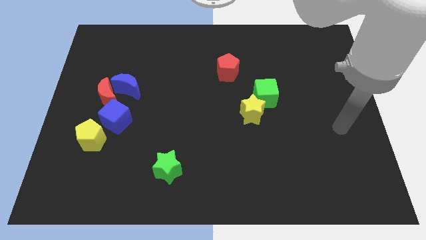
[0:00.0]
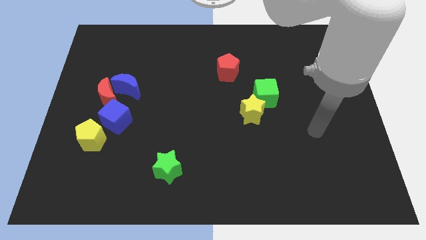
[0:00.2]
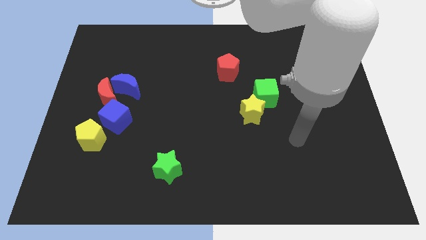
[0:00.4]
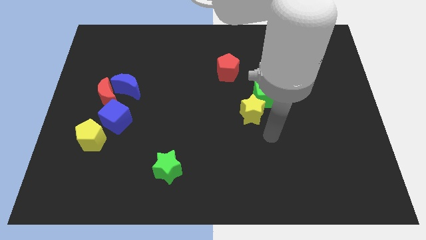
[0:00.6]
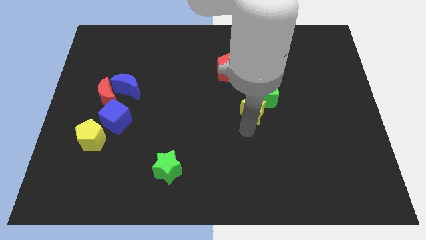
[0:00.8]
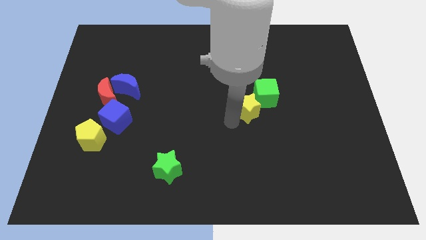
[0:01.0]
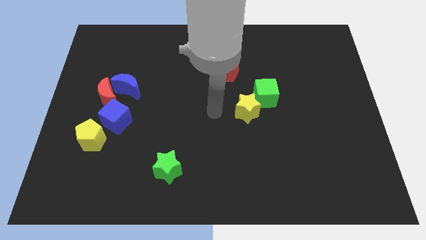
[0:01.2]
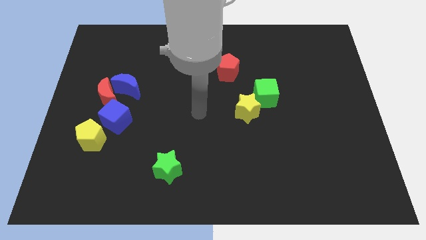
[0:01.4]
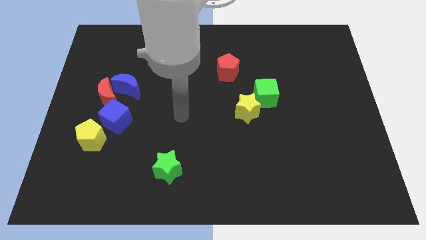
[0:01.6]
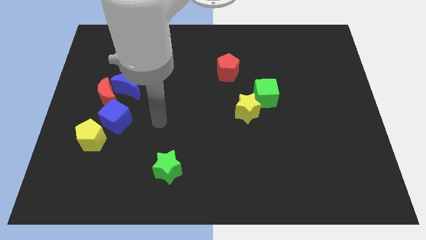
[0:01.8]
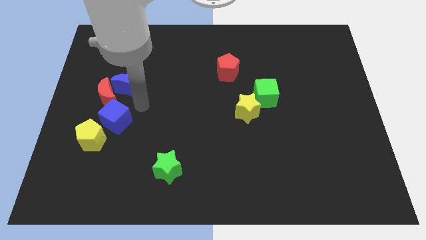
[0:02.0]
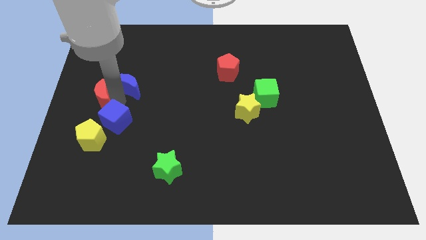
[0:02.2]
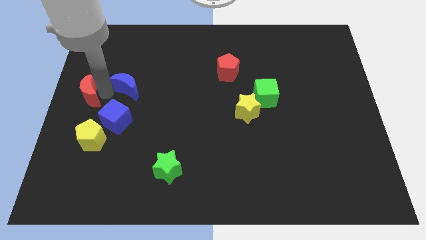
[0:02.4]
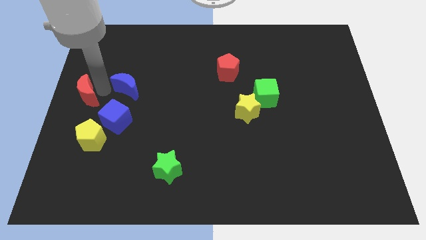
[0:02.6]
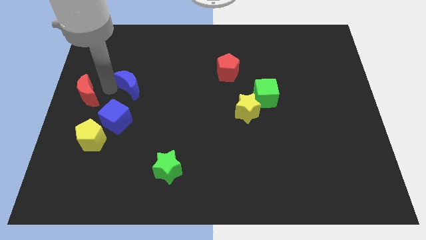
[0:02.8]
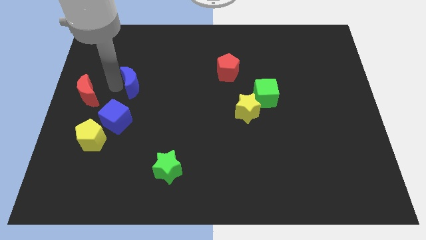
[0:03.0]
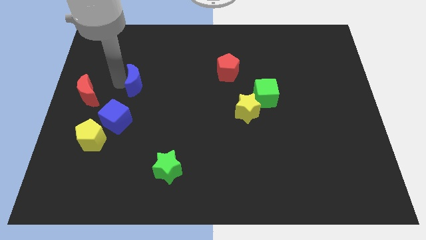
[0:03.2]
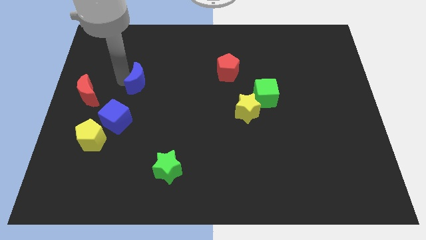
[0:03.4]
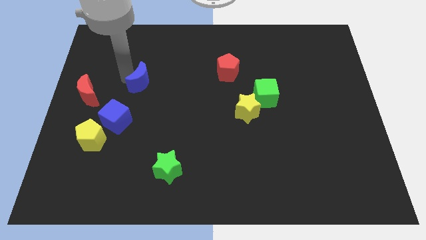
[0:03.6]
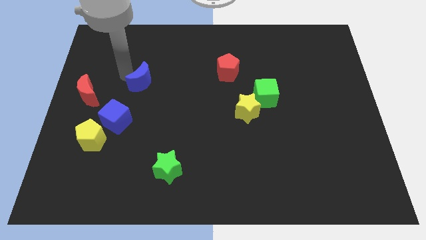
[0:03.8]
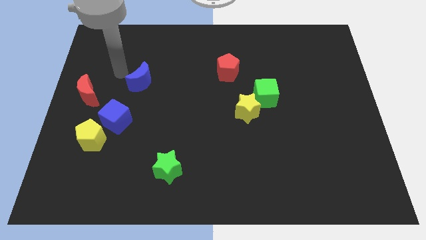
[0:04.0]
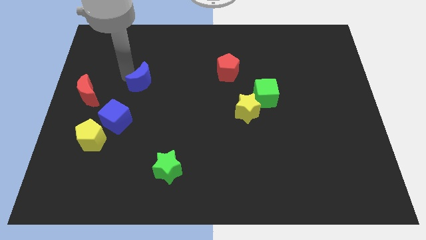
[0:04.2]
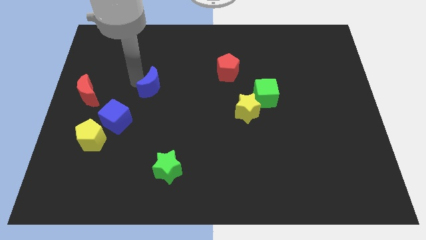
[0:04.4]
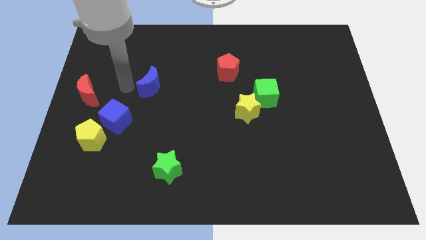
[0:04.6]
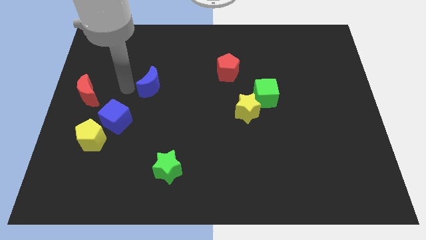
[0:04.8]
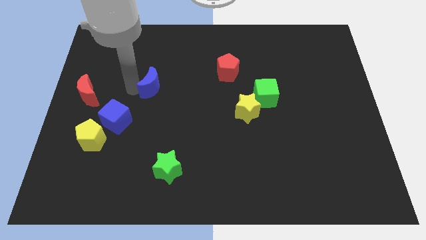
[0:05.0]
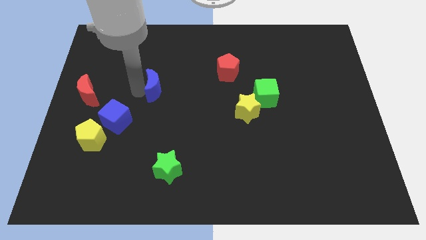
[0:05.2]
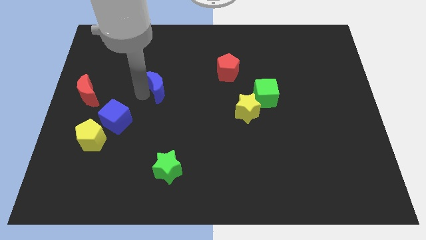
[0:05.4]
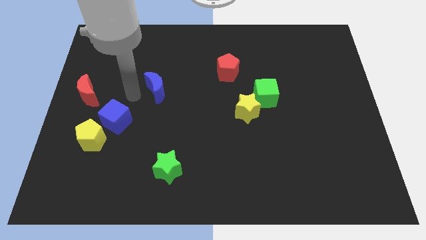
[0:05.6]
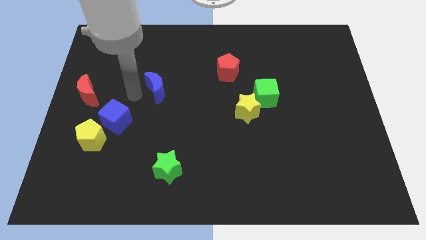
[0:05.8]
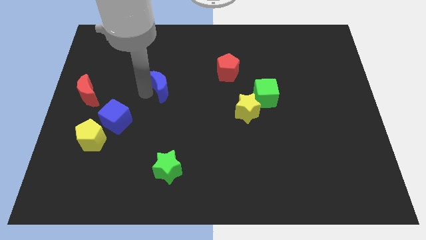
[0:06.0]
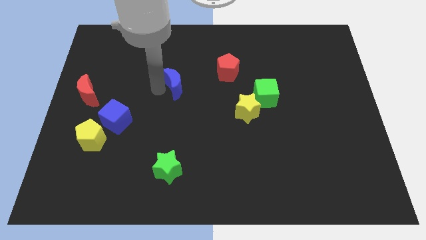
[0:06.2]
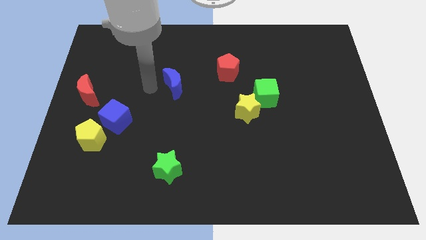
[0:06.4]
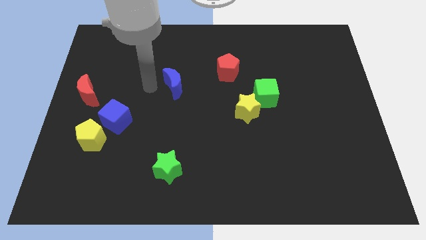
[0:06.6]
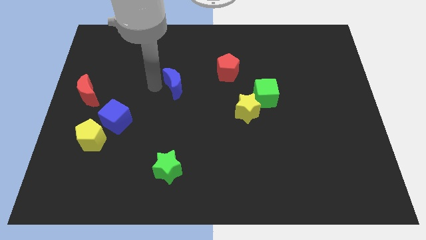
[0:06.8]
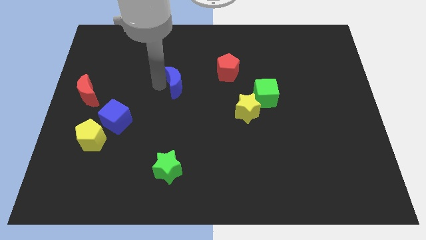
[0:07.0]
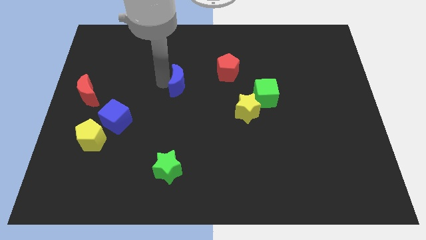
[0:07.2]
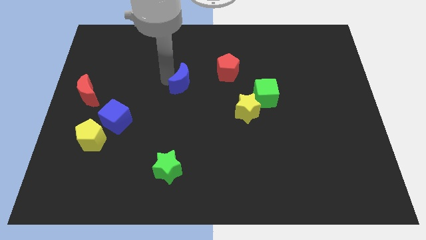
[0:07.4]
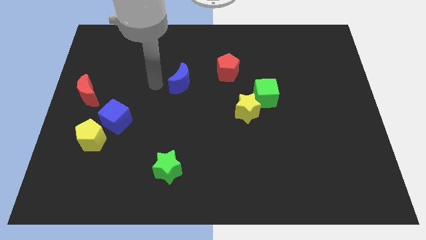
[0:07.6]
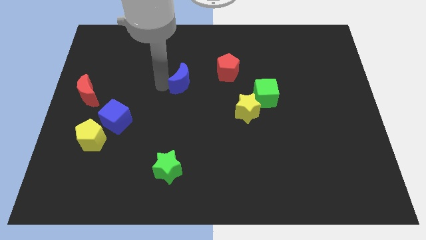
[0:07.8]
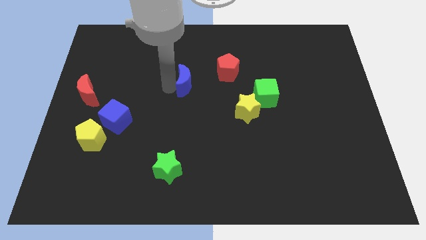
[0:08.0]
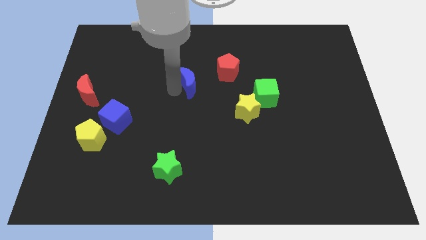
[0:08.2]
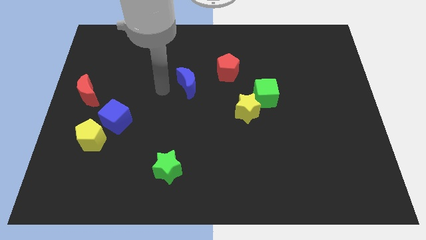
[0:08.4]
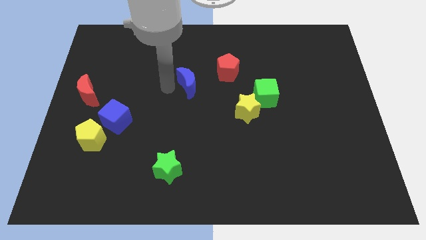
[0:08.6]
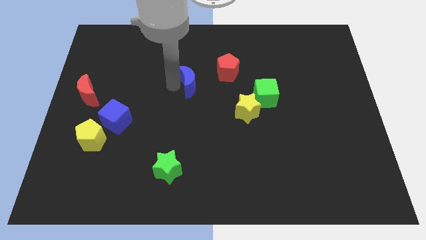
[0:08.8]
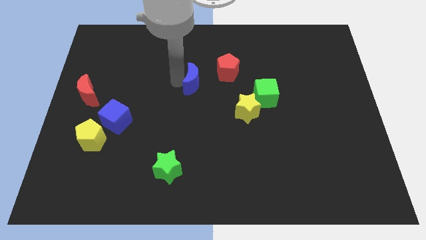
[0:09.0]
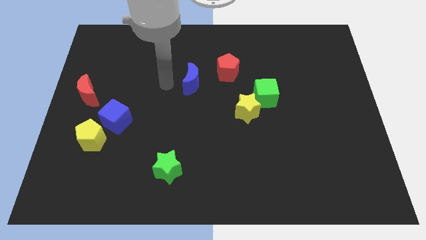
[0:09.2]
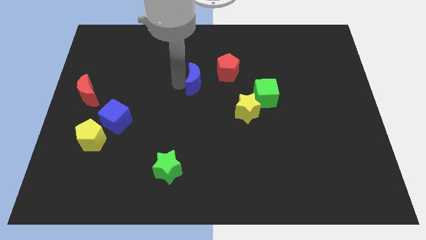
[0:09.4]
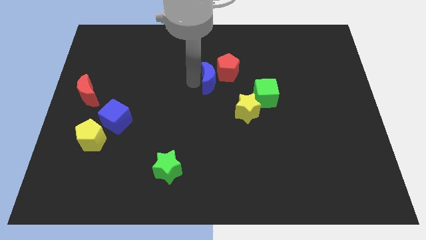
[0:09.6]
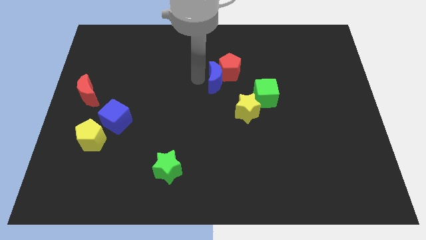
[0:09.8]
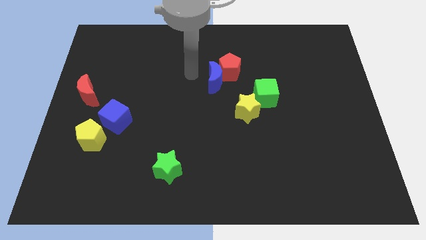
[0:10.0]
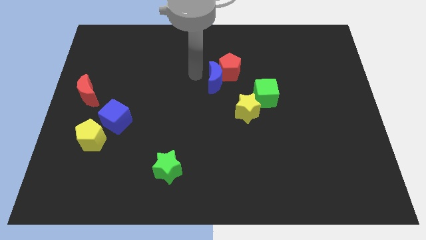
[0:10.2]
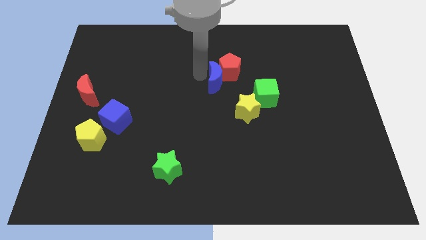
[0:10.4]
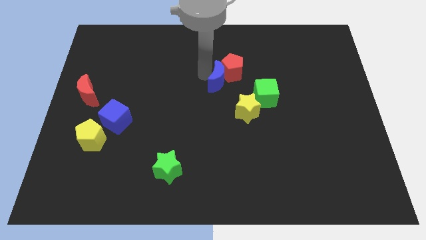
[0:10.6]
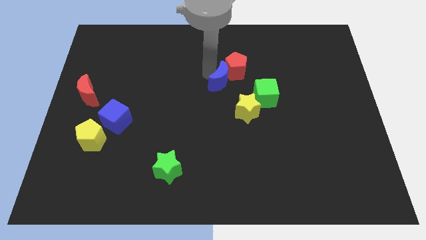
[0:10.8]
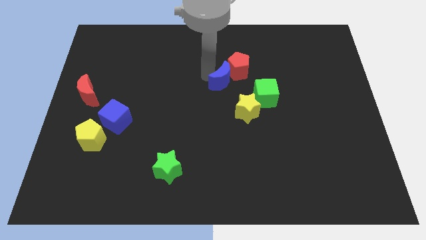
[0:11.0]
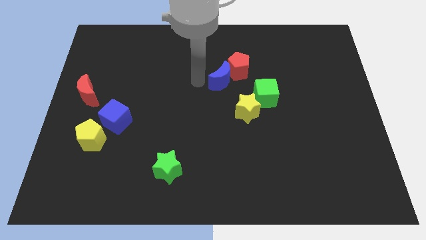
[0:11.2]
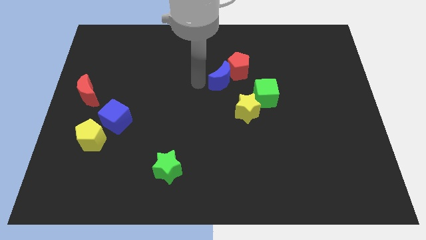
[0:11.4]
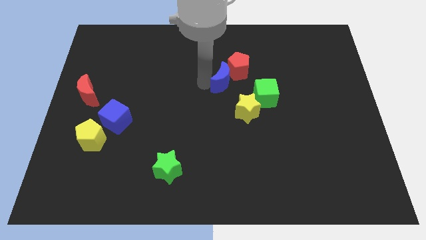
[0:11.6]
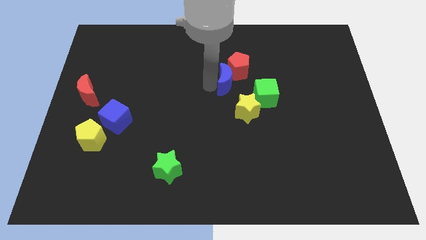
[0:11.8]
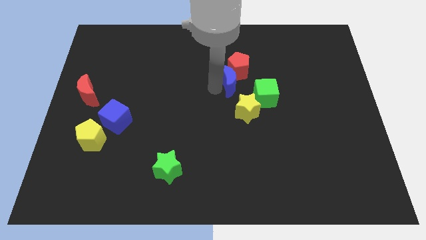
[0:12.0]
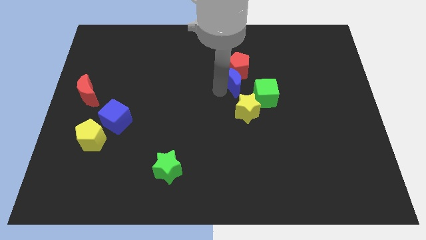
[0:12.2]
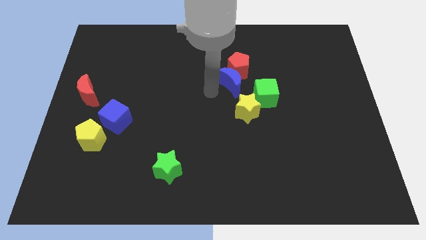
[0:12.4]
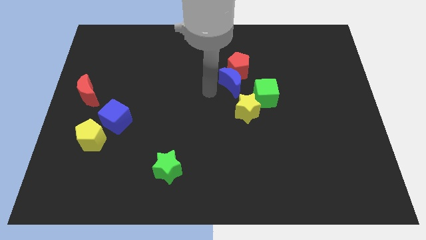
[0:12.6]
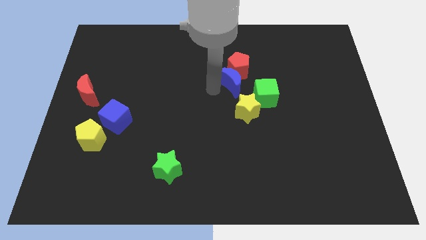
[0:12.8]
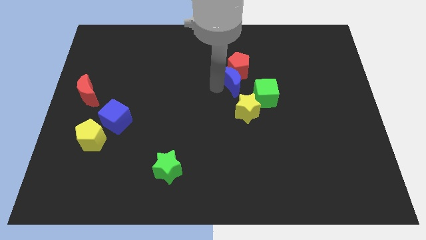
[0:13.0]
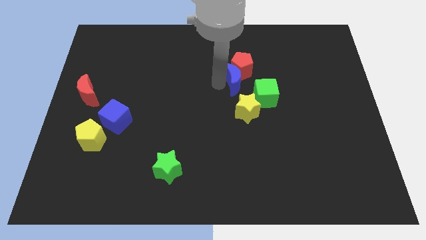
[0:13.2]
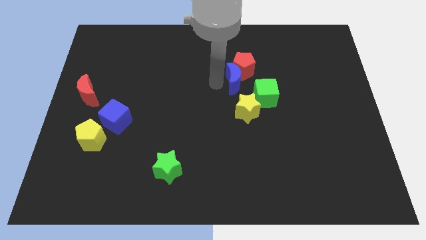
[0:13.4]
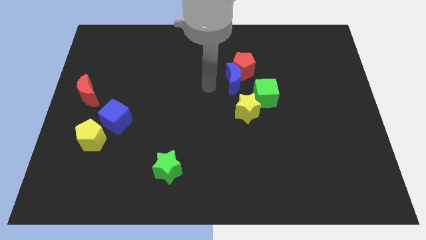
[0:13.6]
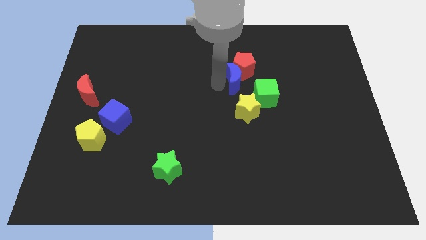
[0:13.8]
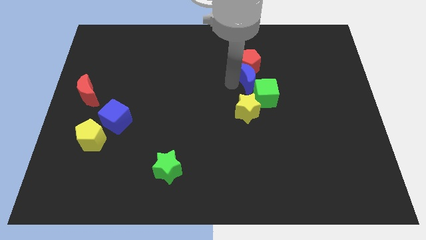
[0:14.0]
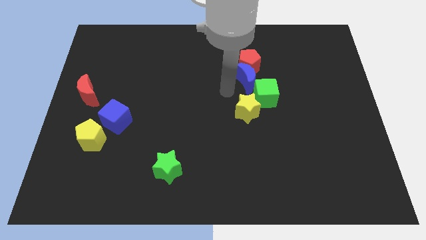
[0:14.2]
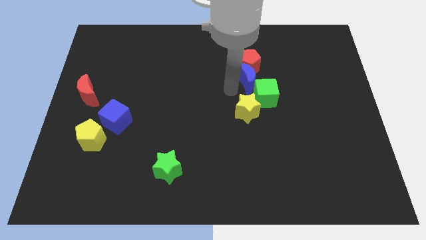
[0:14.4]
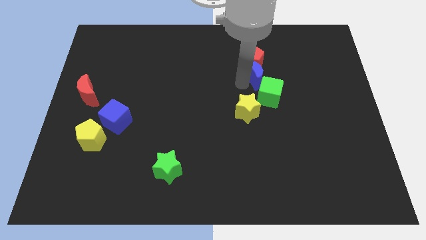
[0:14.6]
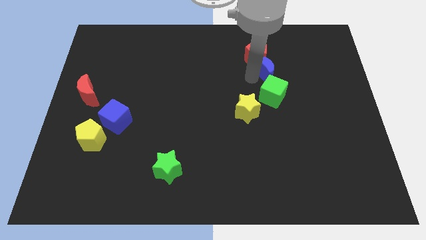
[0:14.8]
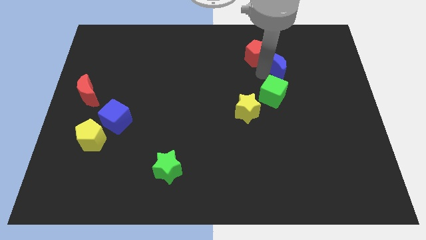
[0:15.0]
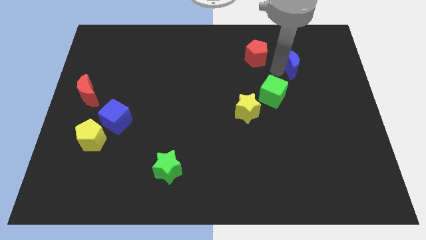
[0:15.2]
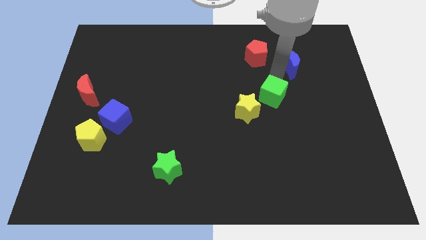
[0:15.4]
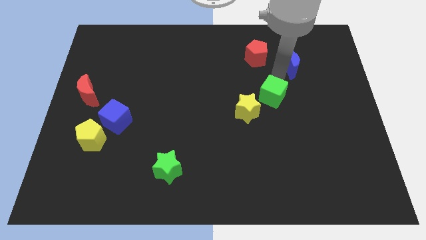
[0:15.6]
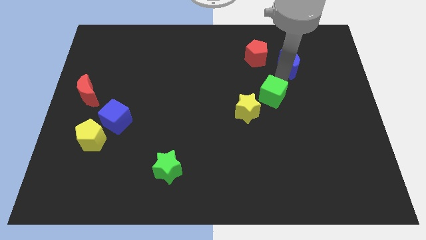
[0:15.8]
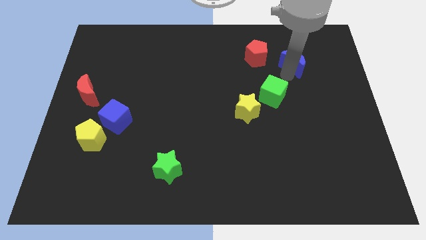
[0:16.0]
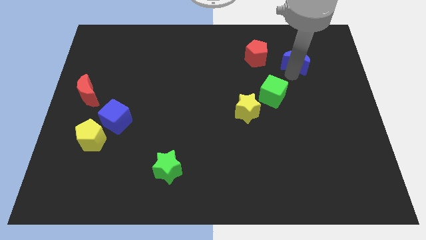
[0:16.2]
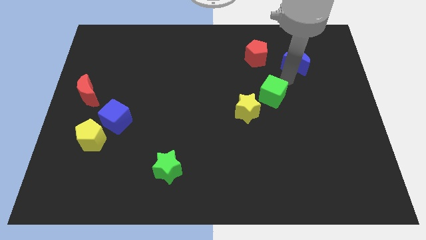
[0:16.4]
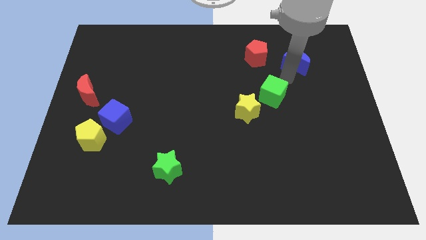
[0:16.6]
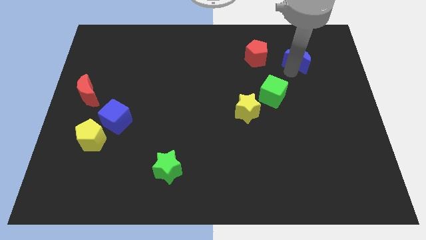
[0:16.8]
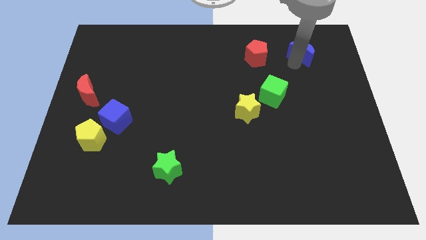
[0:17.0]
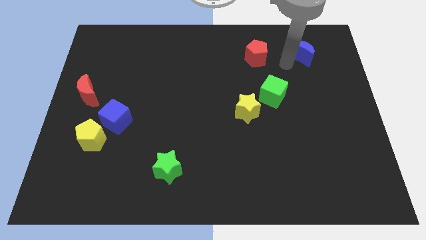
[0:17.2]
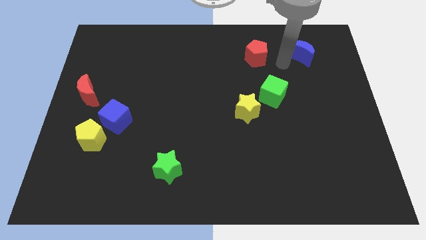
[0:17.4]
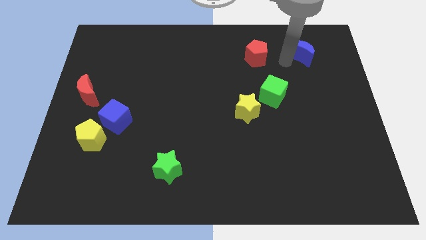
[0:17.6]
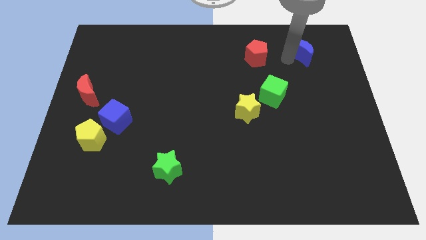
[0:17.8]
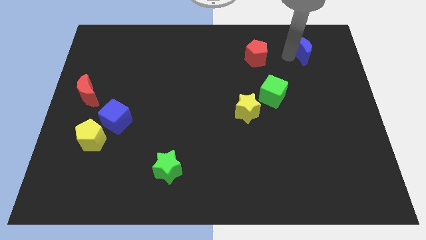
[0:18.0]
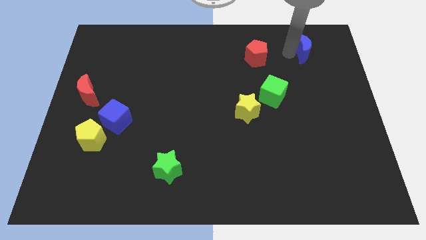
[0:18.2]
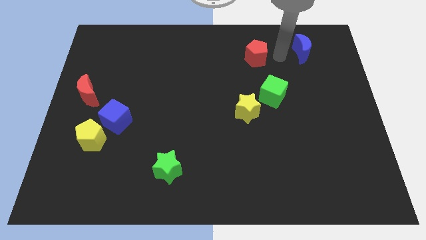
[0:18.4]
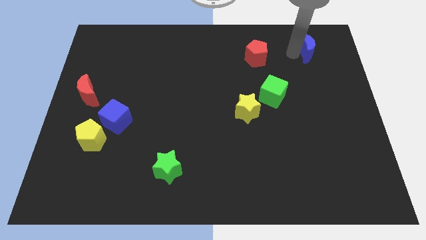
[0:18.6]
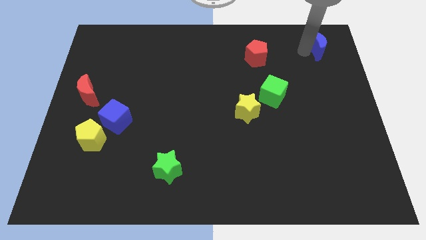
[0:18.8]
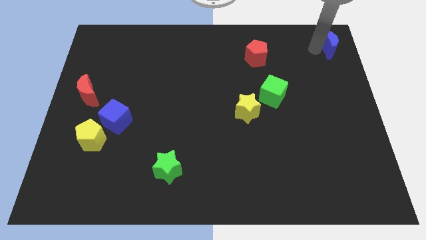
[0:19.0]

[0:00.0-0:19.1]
move the blue moon to the upper right corner
